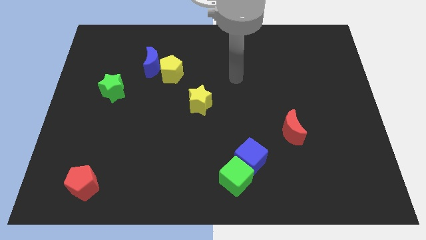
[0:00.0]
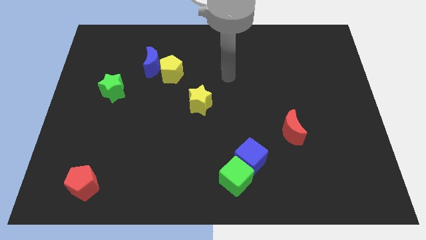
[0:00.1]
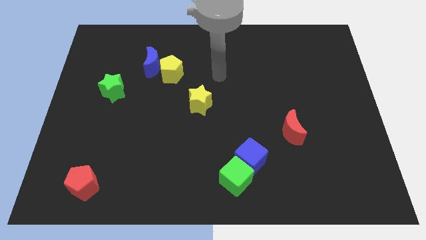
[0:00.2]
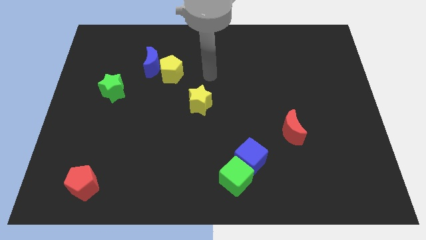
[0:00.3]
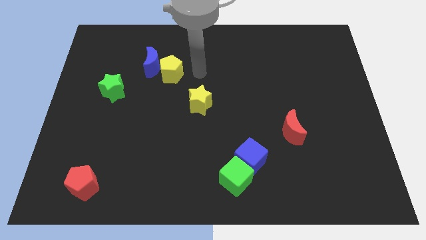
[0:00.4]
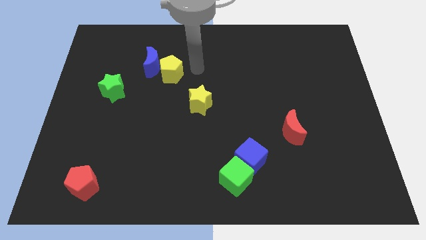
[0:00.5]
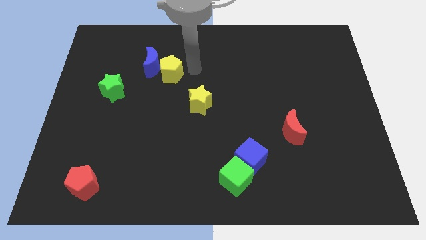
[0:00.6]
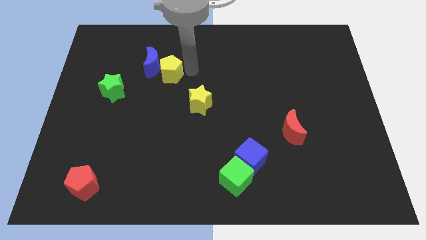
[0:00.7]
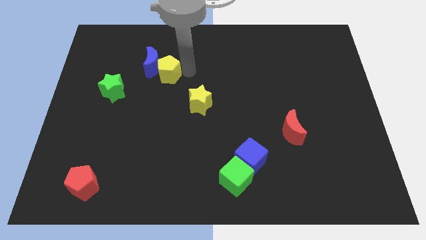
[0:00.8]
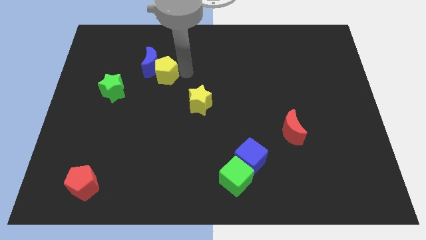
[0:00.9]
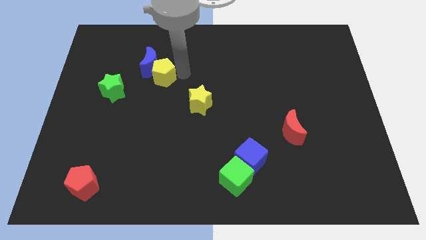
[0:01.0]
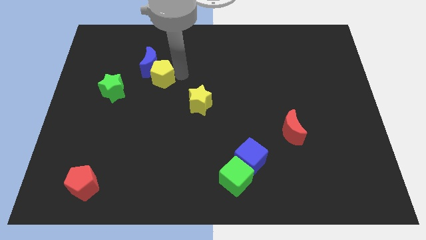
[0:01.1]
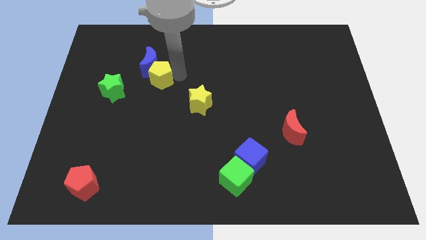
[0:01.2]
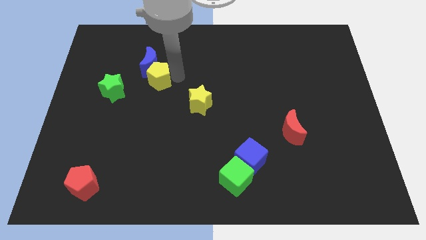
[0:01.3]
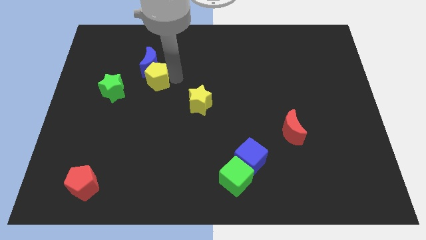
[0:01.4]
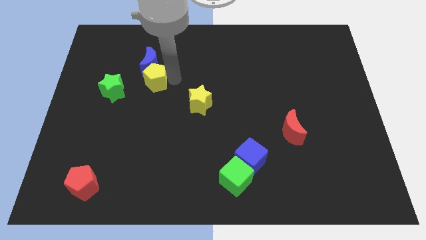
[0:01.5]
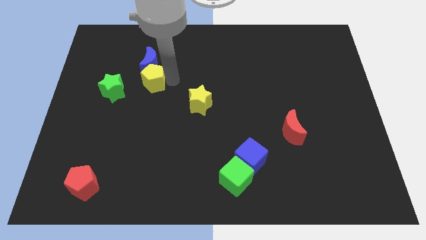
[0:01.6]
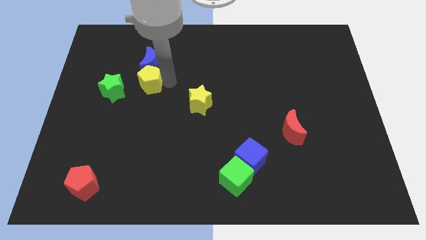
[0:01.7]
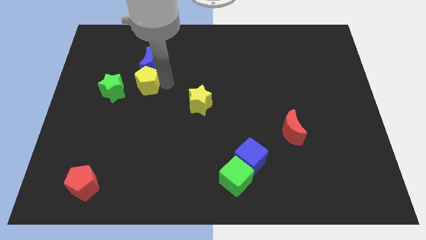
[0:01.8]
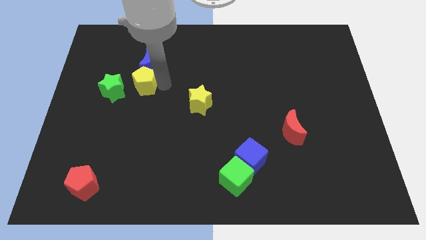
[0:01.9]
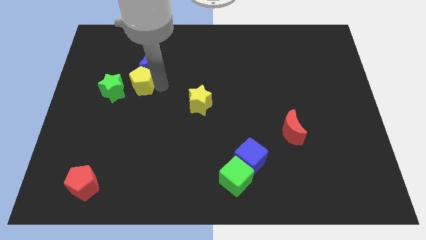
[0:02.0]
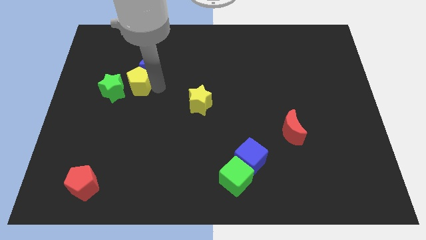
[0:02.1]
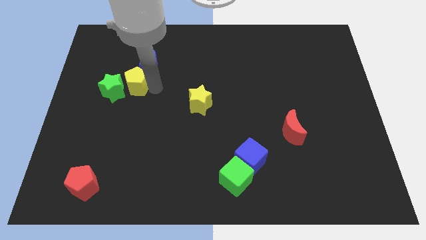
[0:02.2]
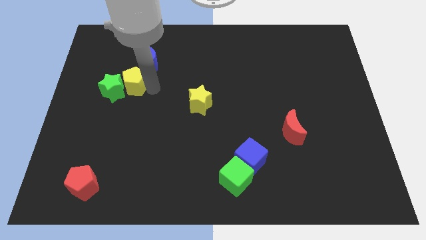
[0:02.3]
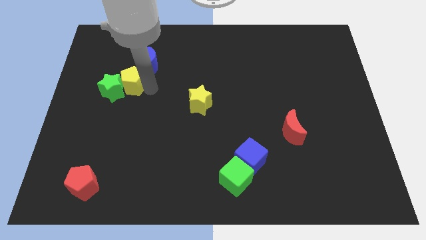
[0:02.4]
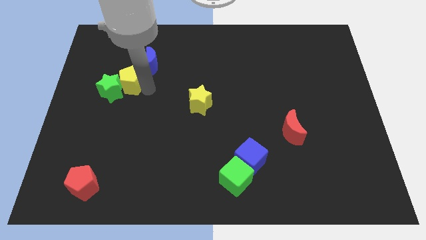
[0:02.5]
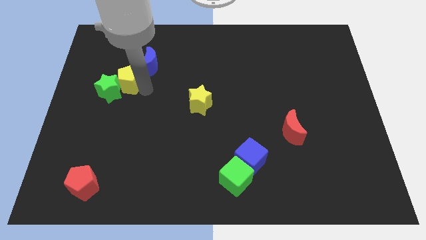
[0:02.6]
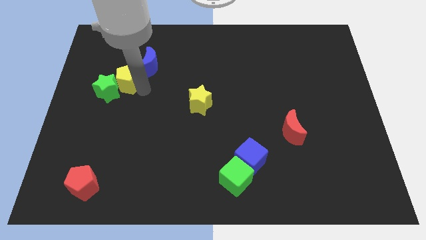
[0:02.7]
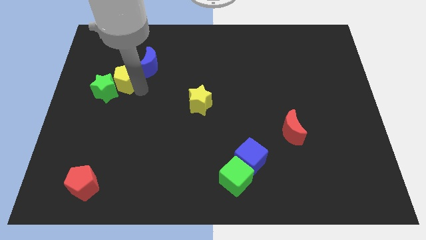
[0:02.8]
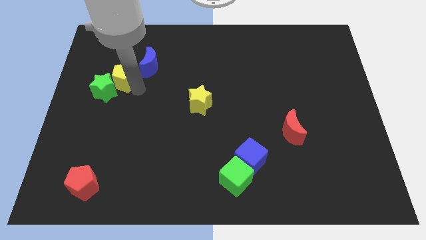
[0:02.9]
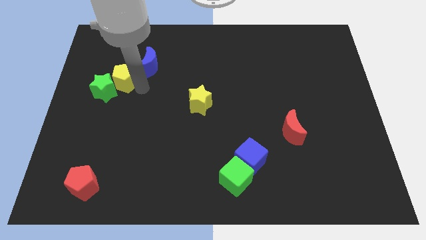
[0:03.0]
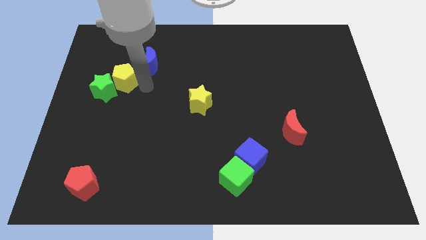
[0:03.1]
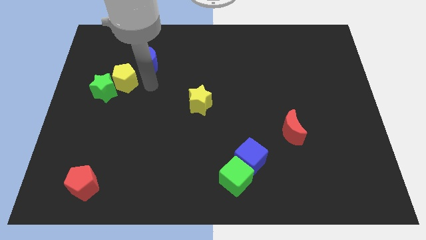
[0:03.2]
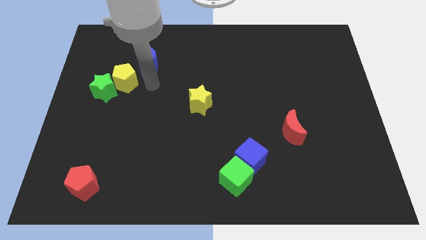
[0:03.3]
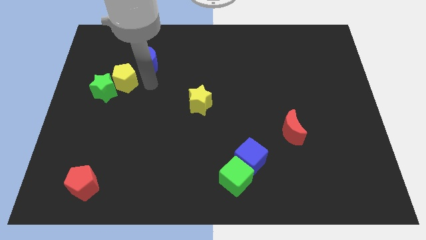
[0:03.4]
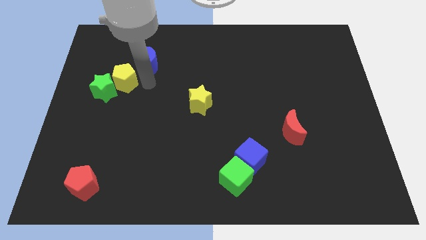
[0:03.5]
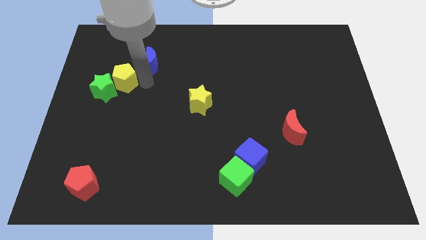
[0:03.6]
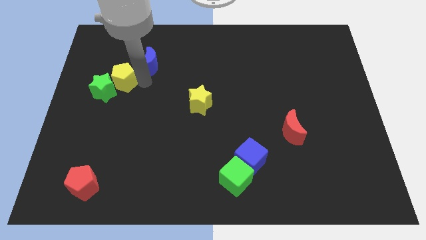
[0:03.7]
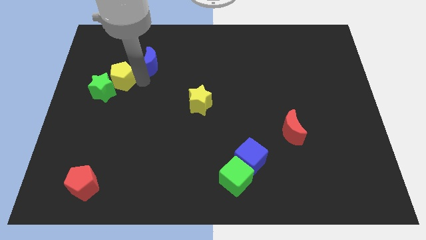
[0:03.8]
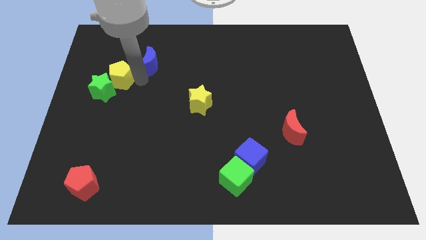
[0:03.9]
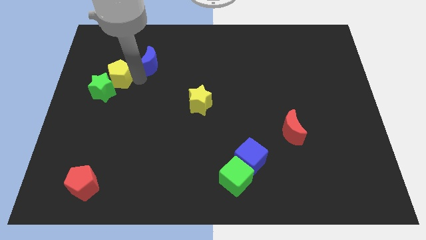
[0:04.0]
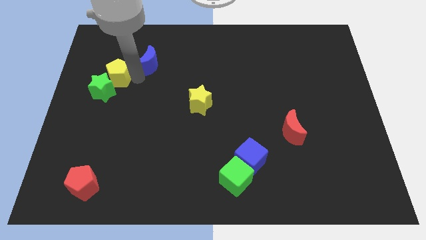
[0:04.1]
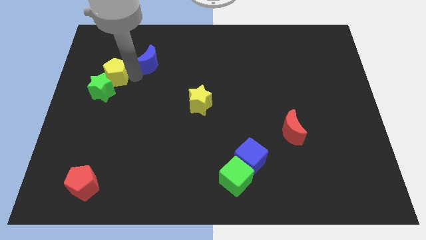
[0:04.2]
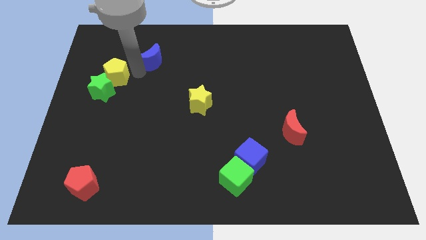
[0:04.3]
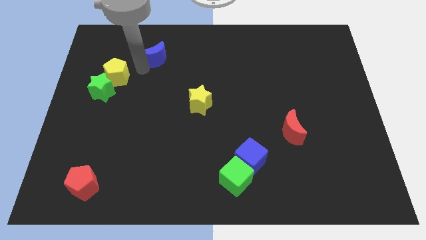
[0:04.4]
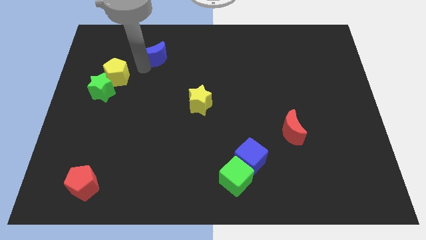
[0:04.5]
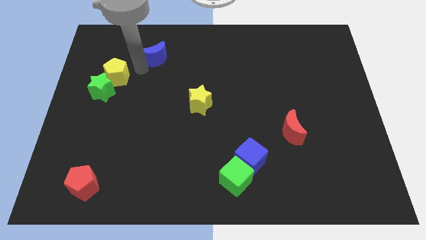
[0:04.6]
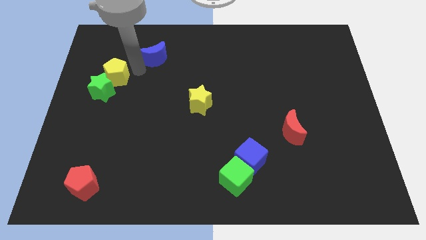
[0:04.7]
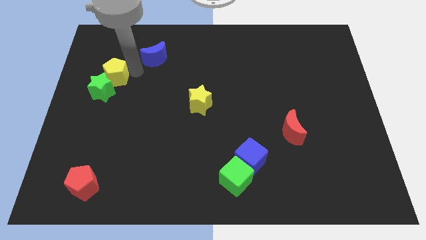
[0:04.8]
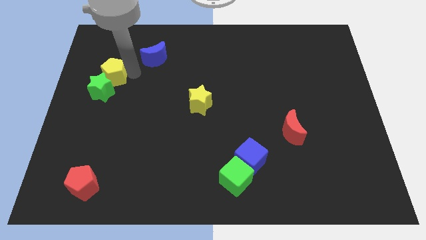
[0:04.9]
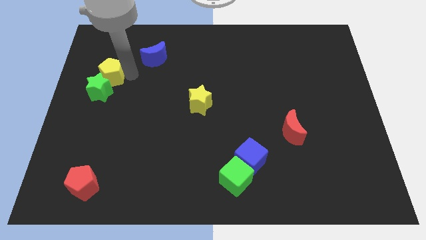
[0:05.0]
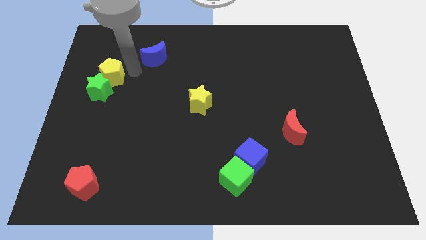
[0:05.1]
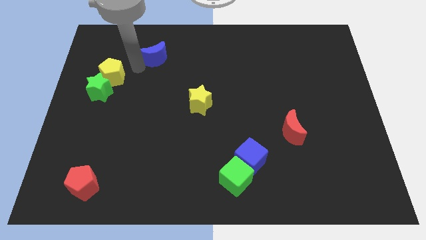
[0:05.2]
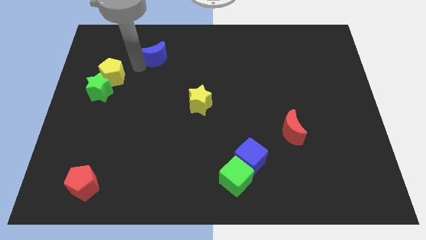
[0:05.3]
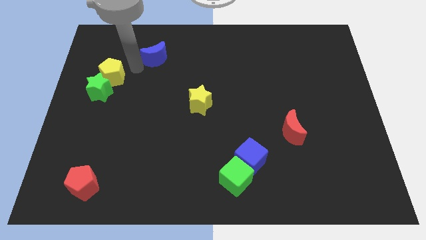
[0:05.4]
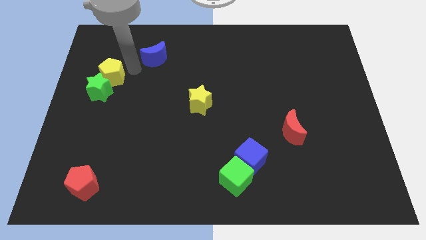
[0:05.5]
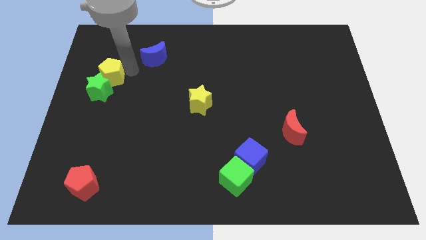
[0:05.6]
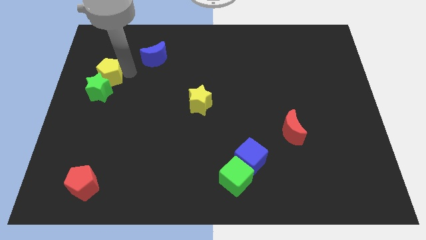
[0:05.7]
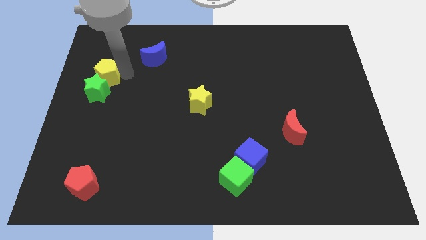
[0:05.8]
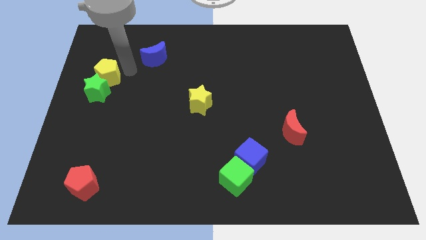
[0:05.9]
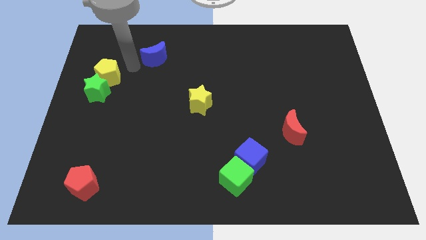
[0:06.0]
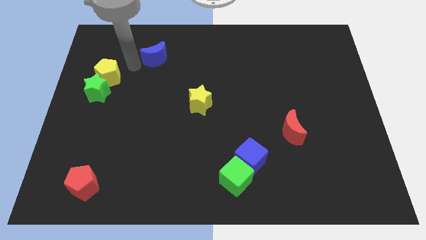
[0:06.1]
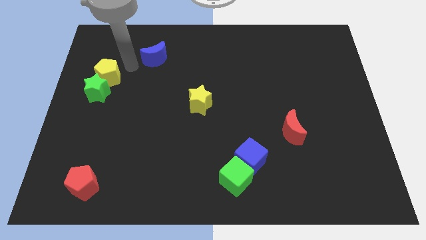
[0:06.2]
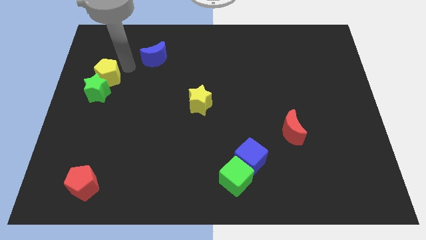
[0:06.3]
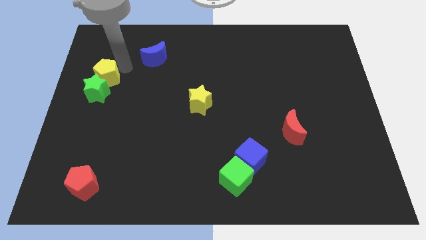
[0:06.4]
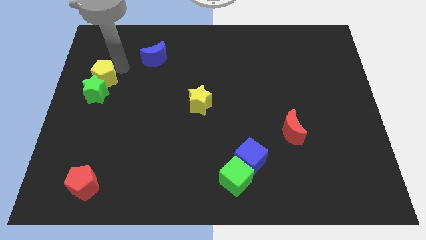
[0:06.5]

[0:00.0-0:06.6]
slide the yellow pentagon to the left side
